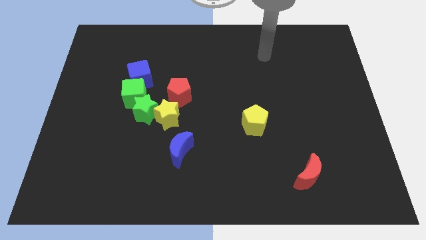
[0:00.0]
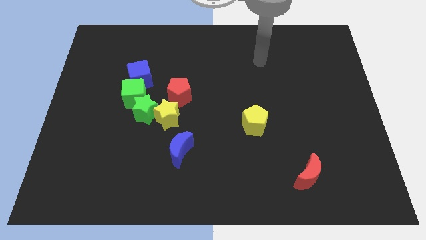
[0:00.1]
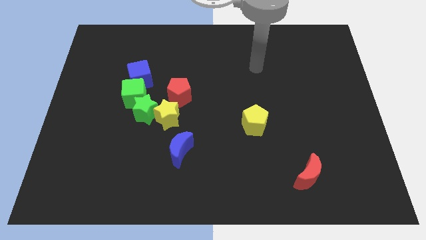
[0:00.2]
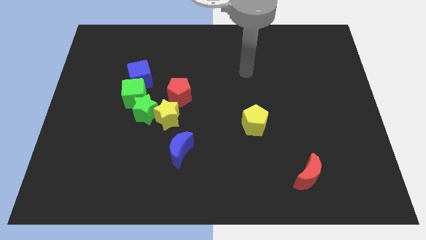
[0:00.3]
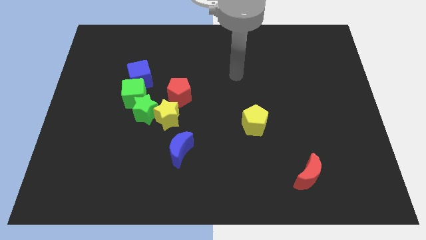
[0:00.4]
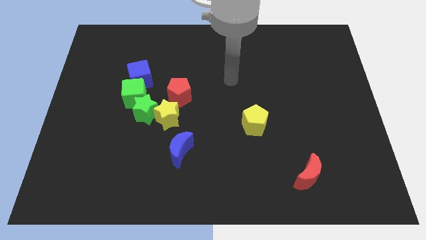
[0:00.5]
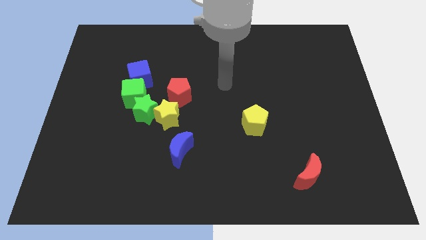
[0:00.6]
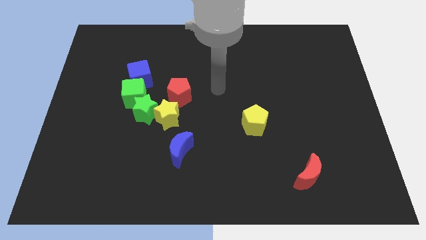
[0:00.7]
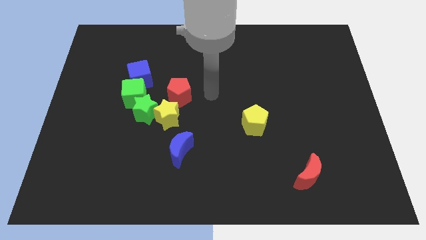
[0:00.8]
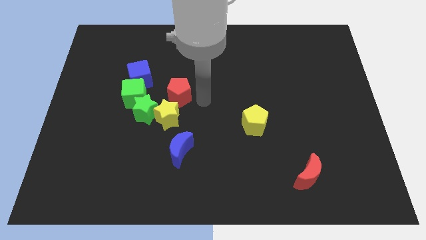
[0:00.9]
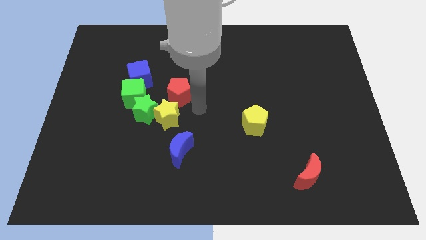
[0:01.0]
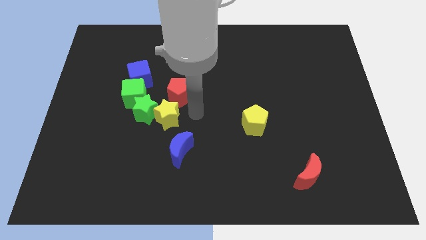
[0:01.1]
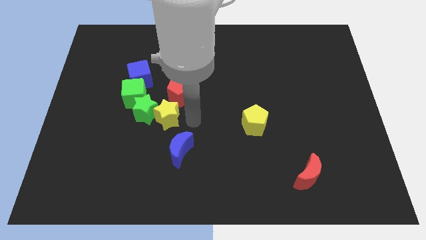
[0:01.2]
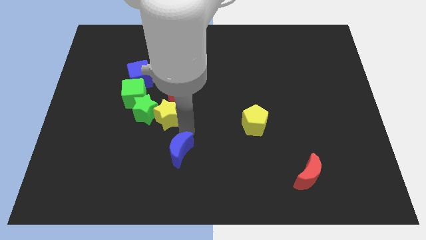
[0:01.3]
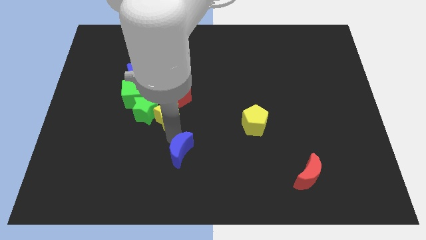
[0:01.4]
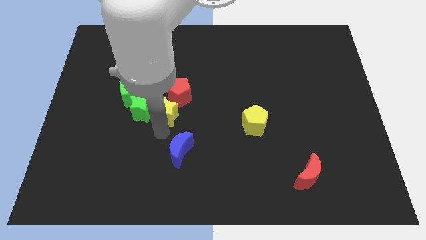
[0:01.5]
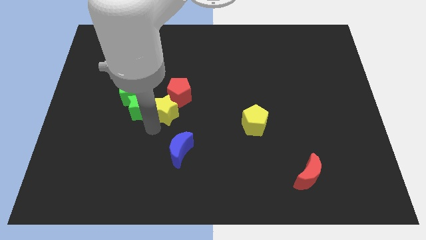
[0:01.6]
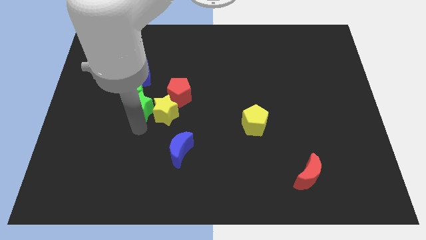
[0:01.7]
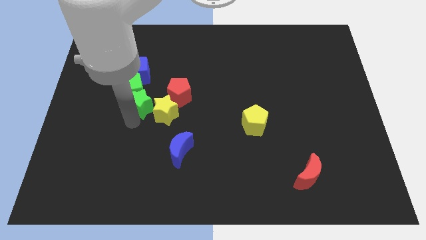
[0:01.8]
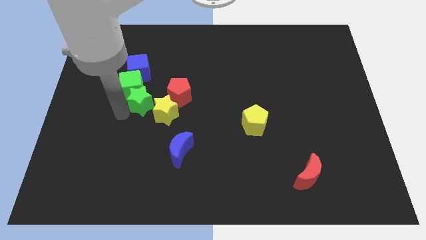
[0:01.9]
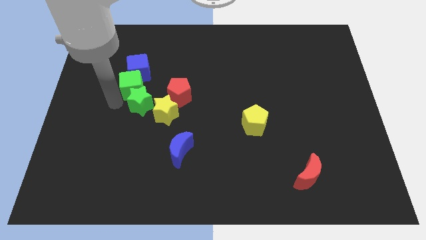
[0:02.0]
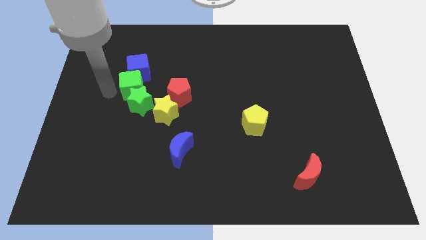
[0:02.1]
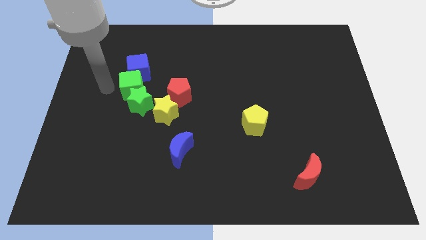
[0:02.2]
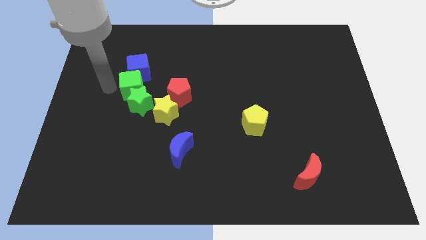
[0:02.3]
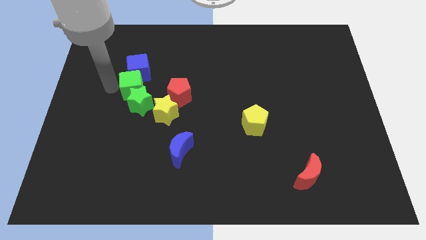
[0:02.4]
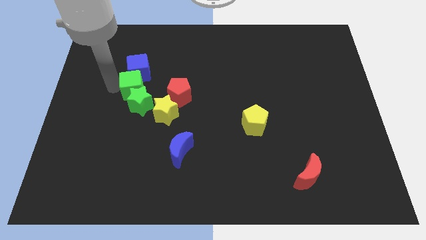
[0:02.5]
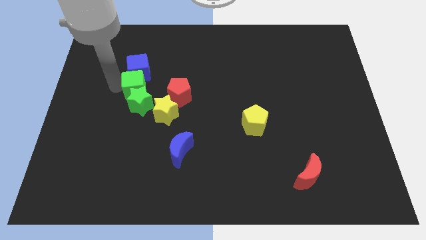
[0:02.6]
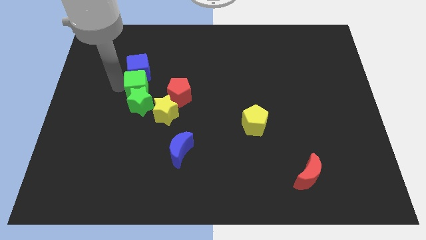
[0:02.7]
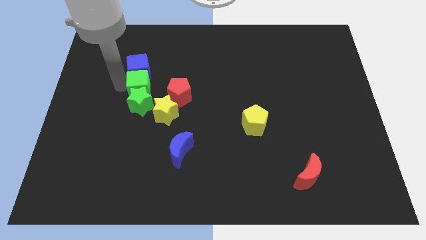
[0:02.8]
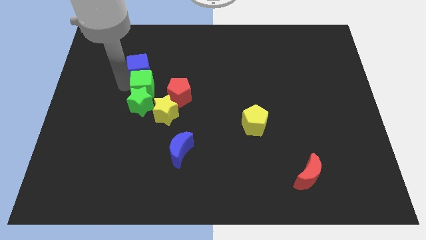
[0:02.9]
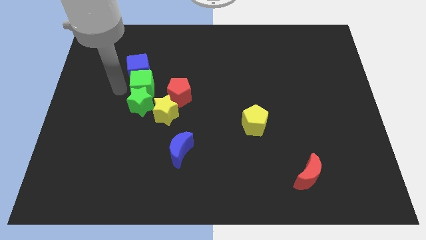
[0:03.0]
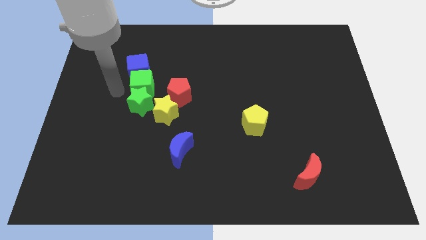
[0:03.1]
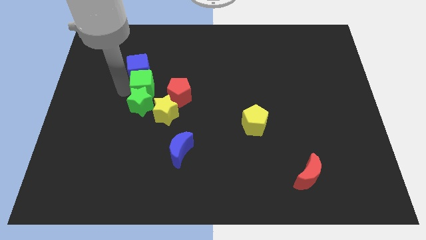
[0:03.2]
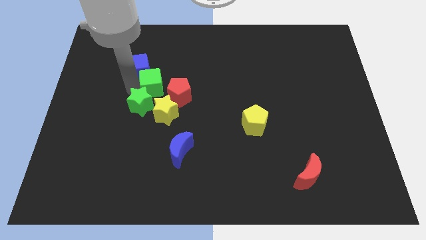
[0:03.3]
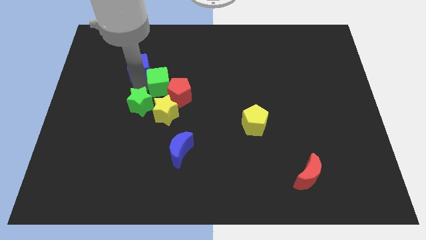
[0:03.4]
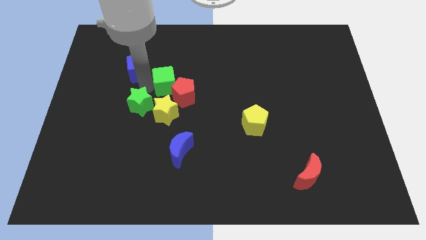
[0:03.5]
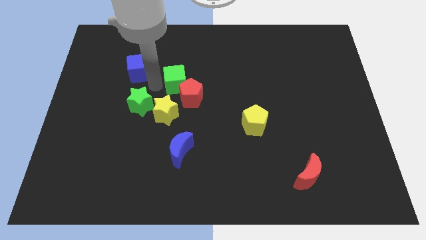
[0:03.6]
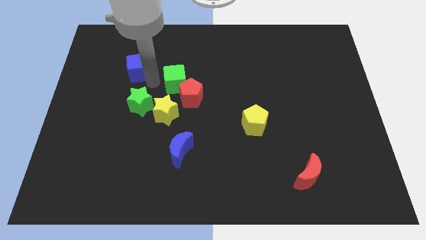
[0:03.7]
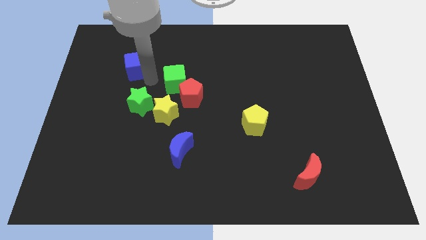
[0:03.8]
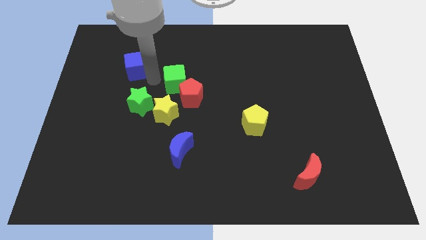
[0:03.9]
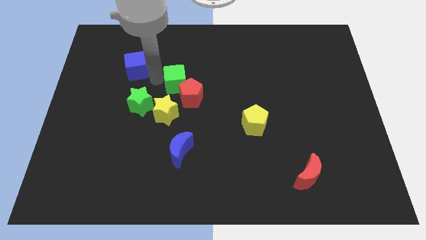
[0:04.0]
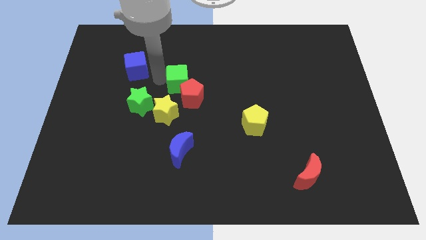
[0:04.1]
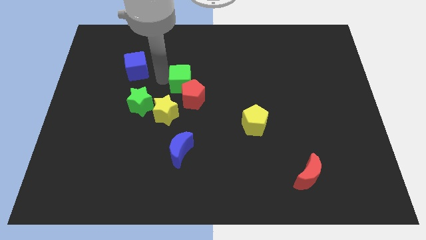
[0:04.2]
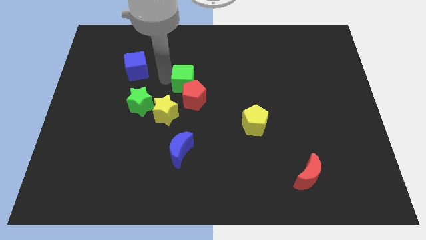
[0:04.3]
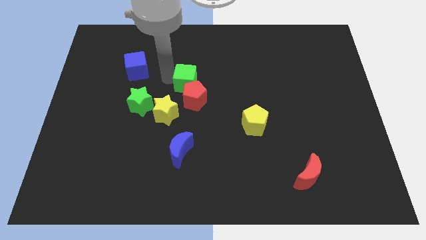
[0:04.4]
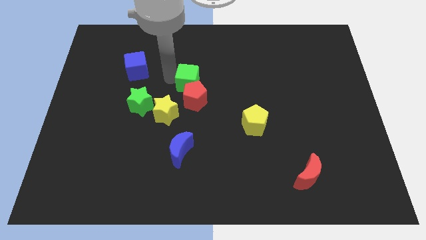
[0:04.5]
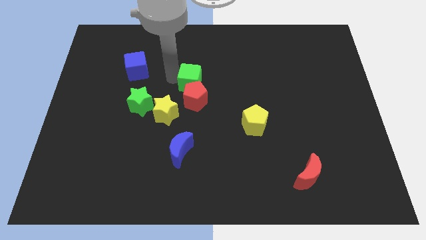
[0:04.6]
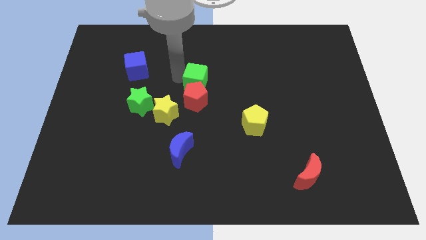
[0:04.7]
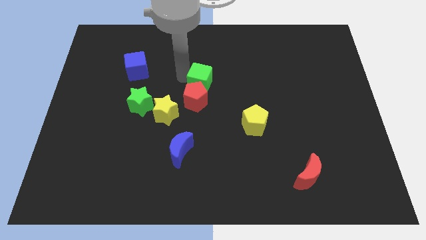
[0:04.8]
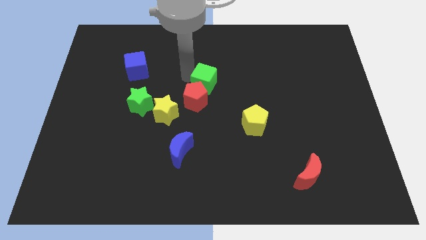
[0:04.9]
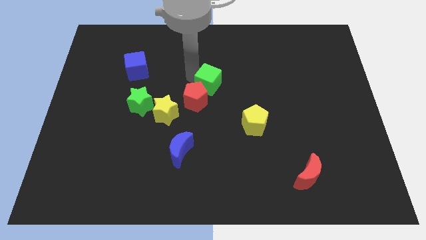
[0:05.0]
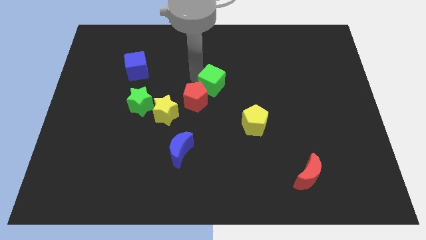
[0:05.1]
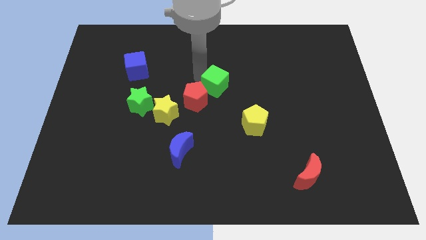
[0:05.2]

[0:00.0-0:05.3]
push the green cube to the right side of the red pentagon
